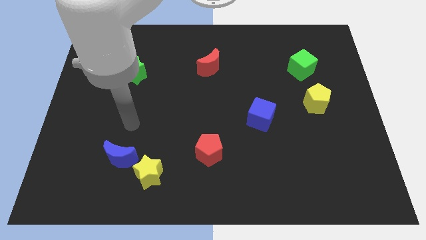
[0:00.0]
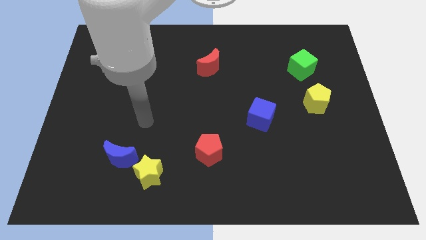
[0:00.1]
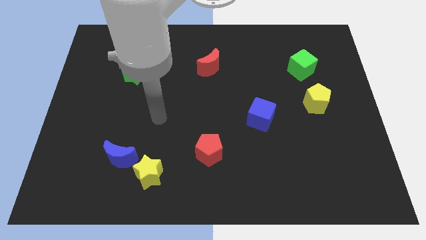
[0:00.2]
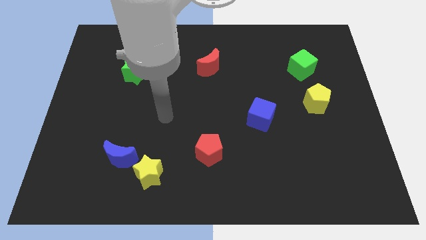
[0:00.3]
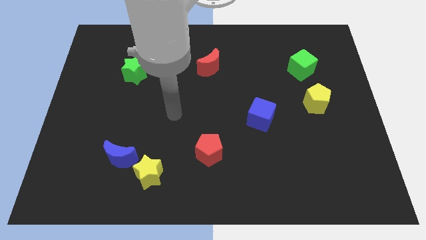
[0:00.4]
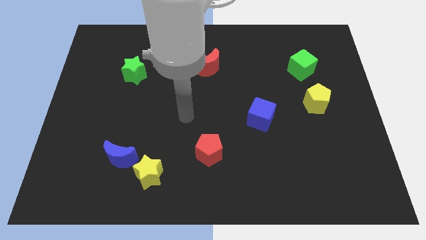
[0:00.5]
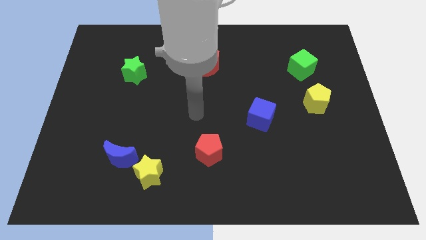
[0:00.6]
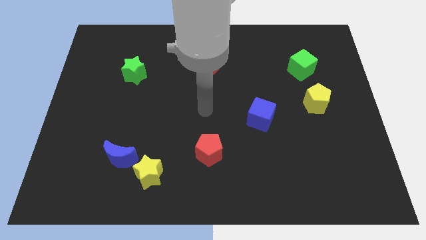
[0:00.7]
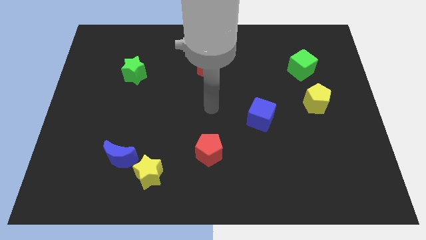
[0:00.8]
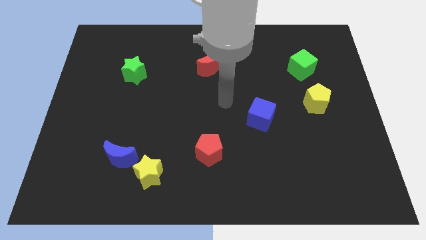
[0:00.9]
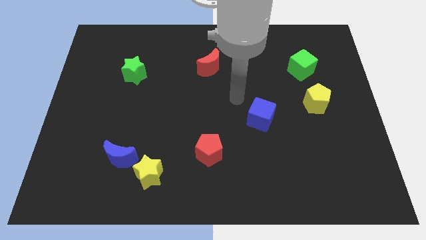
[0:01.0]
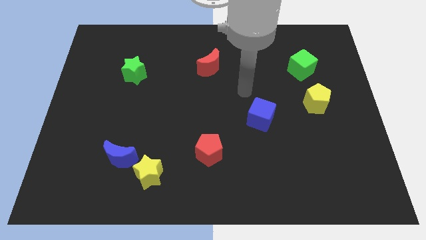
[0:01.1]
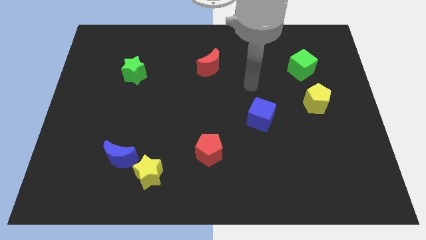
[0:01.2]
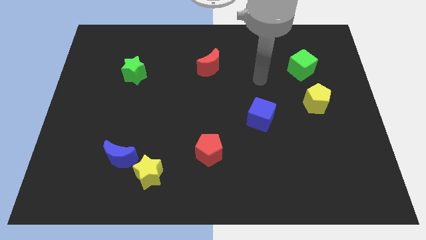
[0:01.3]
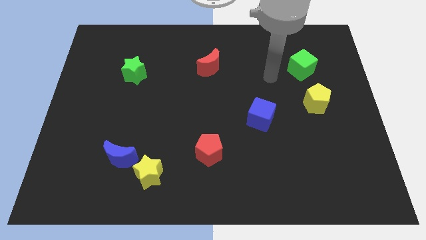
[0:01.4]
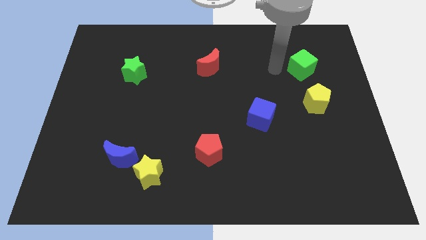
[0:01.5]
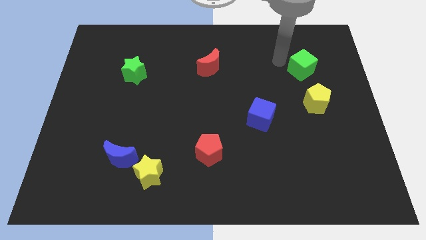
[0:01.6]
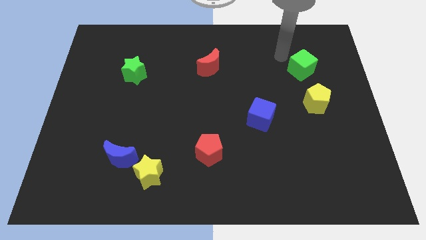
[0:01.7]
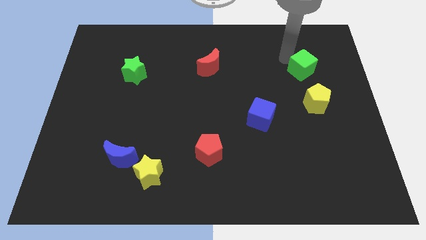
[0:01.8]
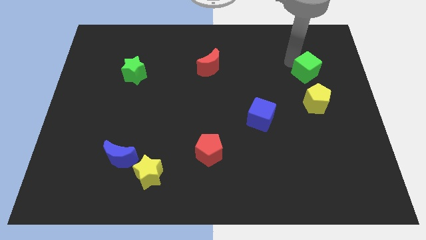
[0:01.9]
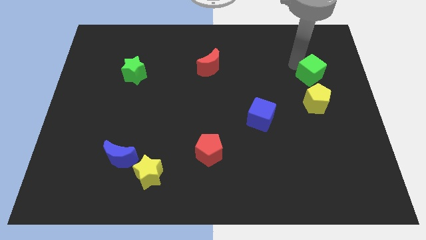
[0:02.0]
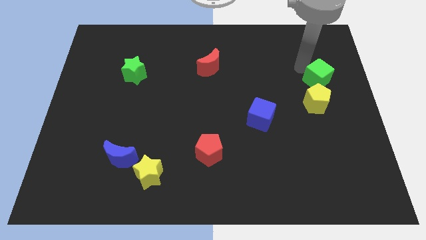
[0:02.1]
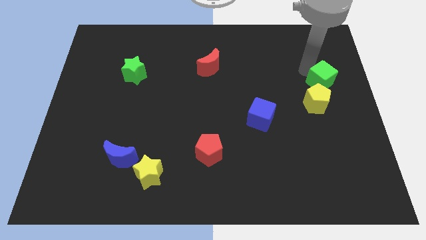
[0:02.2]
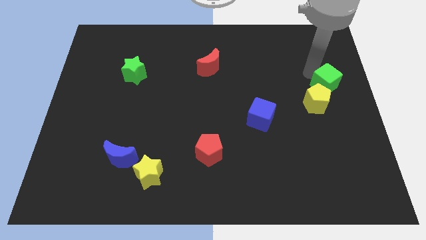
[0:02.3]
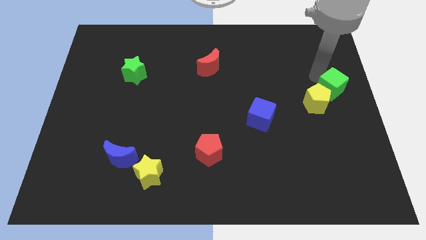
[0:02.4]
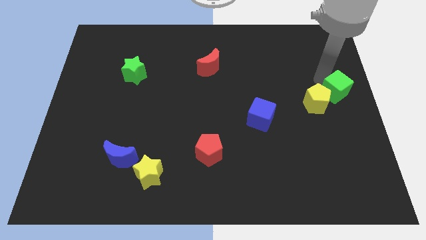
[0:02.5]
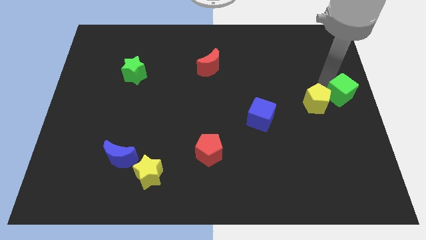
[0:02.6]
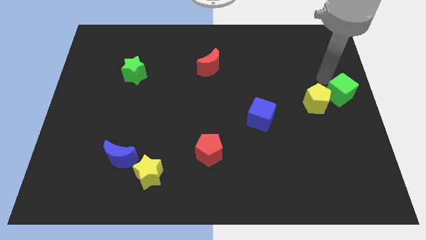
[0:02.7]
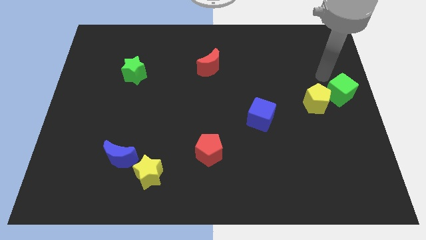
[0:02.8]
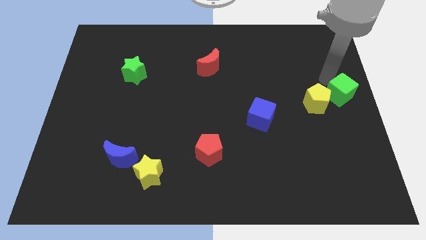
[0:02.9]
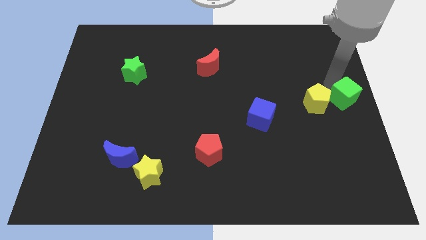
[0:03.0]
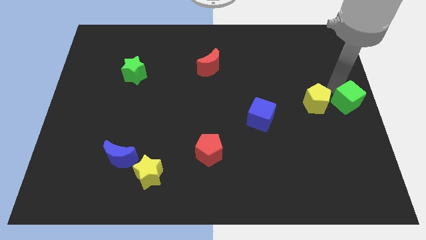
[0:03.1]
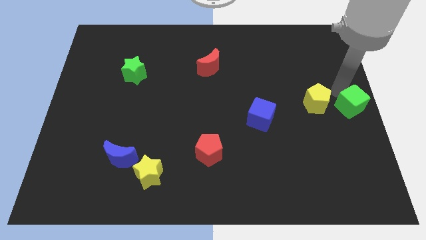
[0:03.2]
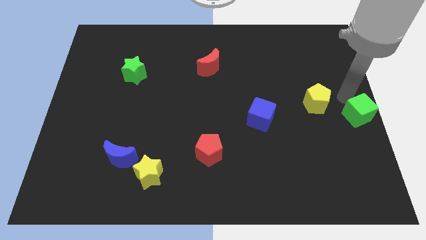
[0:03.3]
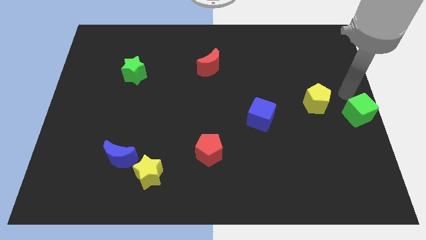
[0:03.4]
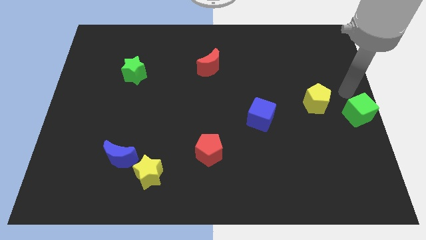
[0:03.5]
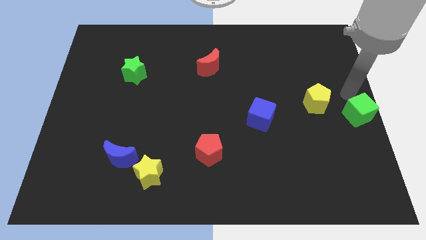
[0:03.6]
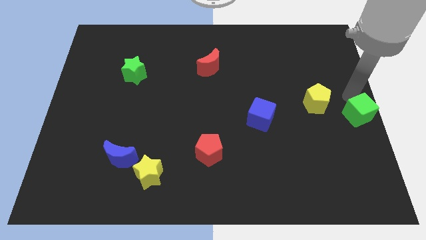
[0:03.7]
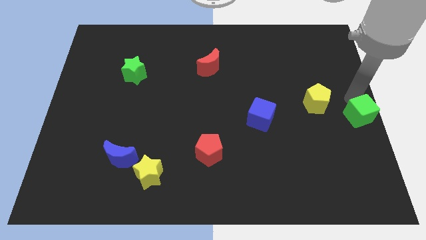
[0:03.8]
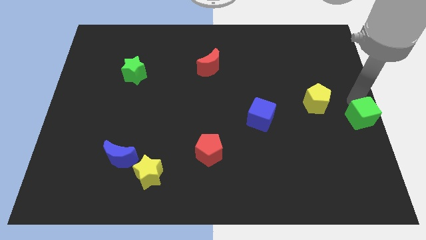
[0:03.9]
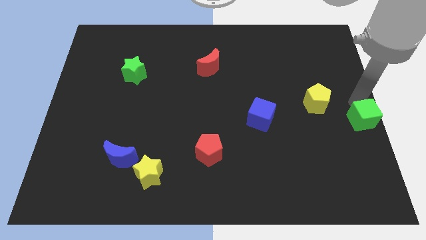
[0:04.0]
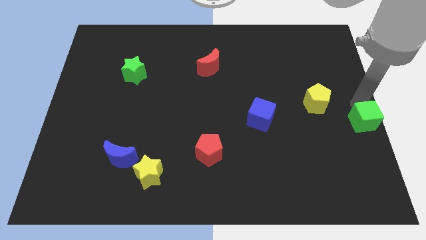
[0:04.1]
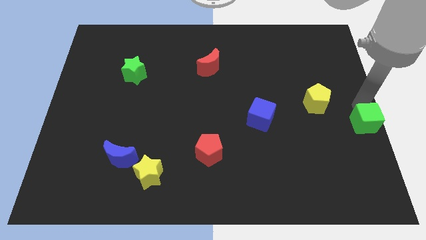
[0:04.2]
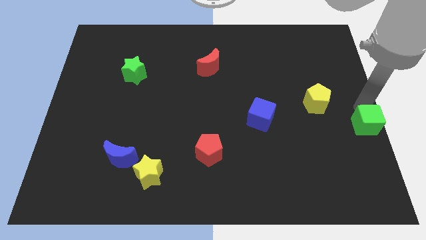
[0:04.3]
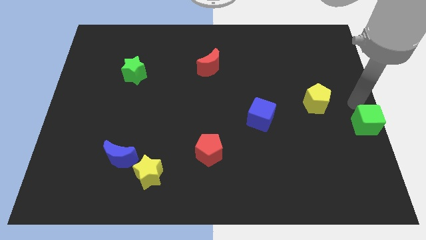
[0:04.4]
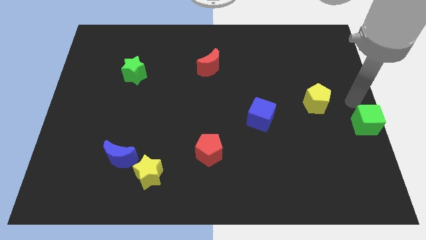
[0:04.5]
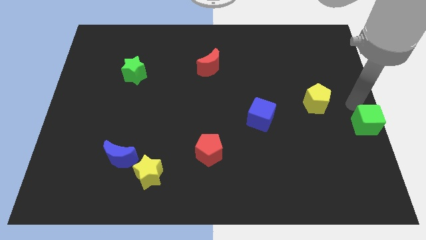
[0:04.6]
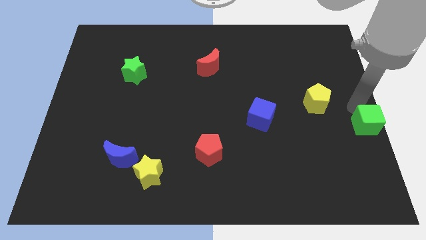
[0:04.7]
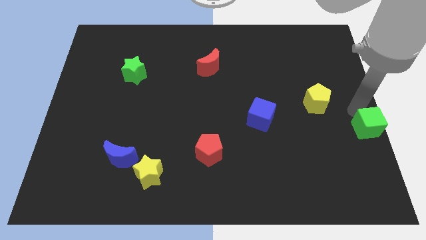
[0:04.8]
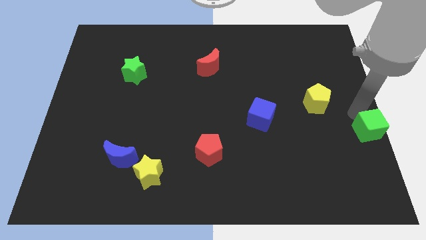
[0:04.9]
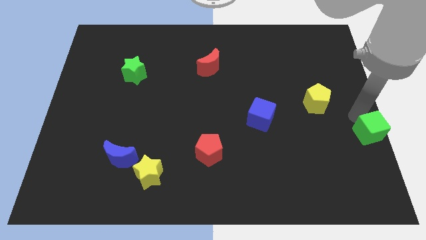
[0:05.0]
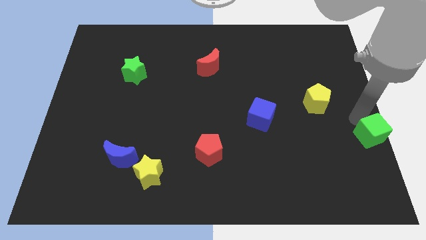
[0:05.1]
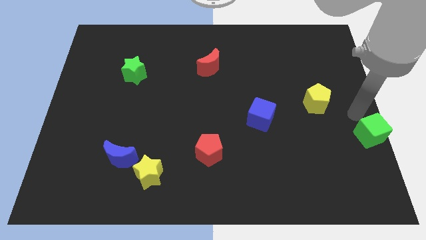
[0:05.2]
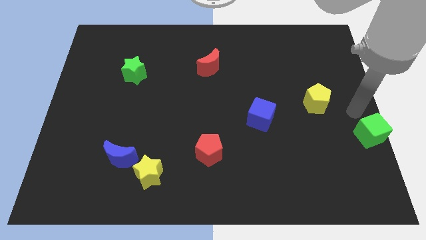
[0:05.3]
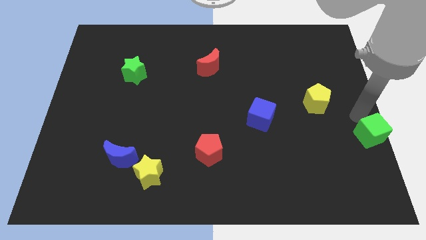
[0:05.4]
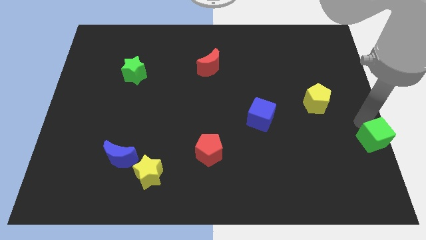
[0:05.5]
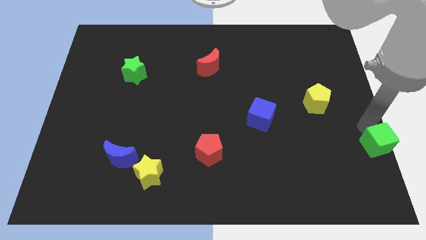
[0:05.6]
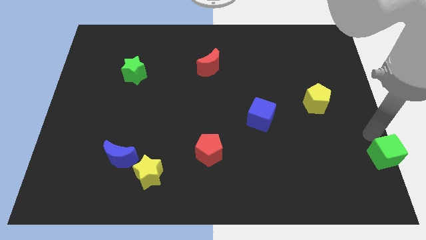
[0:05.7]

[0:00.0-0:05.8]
slide the green cube to the bottom right of the board
